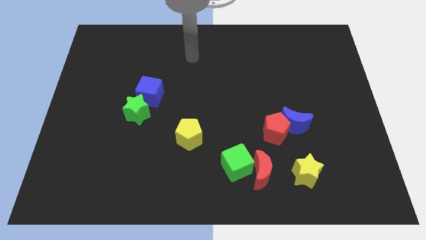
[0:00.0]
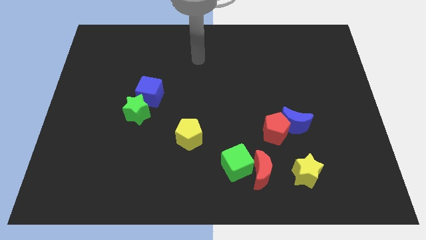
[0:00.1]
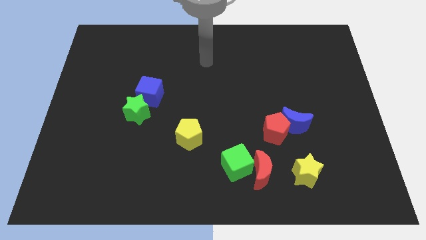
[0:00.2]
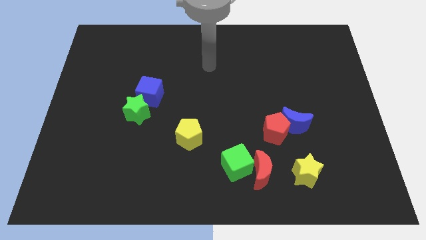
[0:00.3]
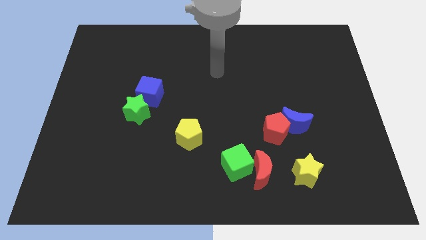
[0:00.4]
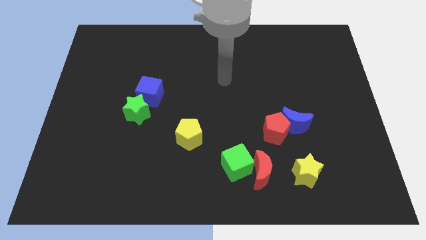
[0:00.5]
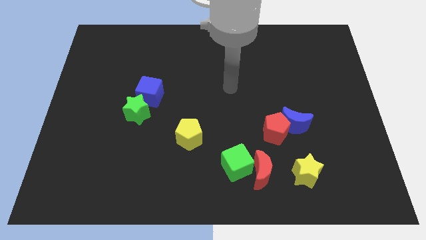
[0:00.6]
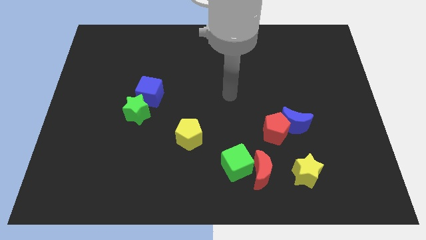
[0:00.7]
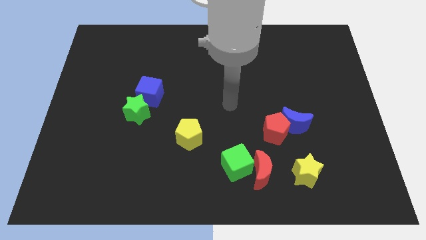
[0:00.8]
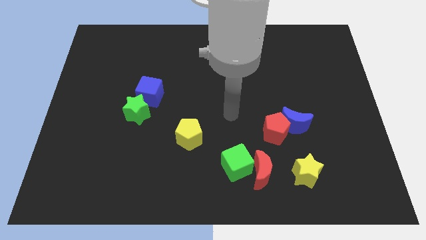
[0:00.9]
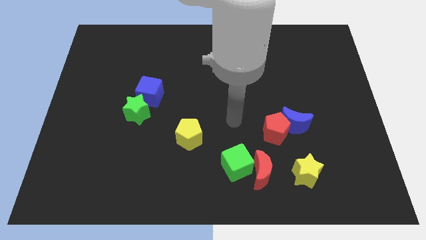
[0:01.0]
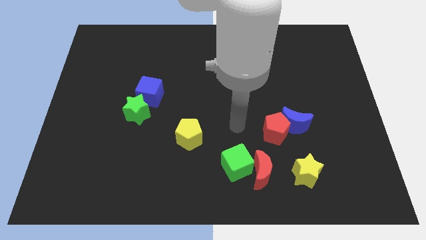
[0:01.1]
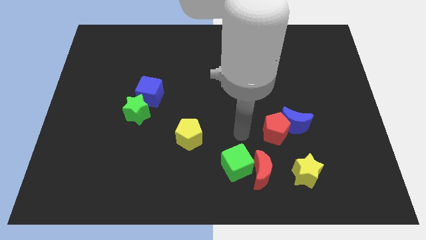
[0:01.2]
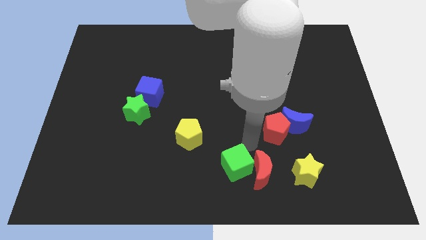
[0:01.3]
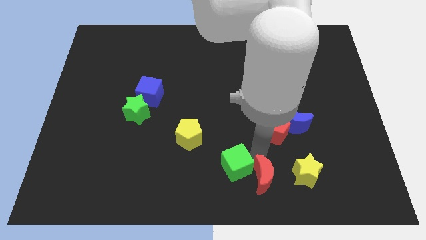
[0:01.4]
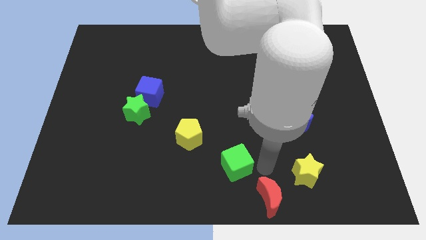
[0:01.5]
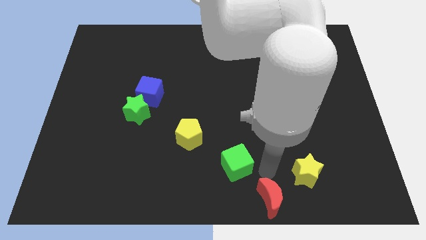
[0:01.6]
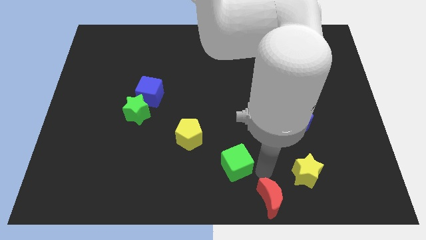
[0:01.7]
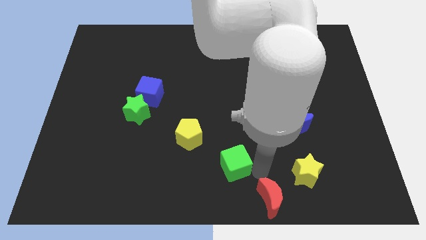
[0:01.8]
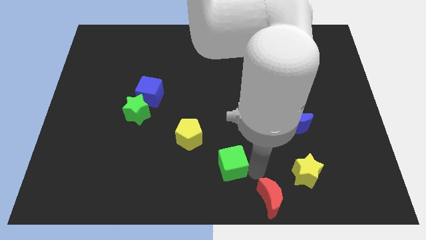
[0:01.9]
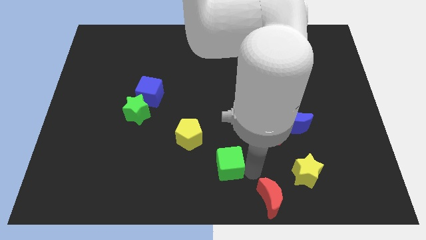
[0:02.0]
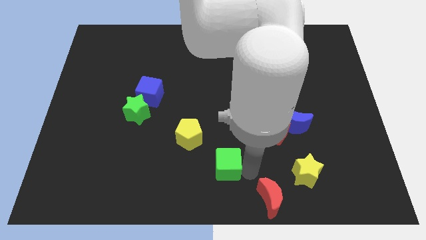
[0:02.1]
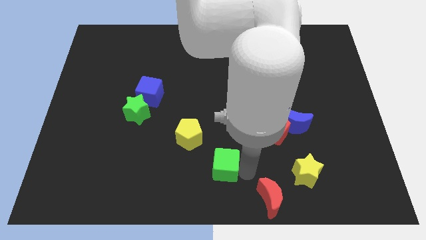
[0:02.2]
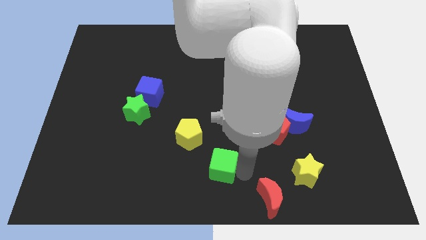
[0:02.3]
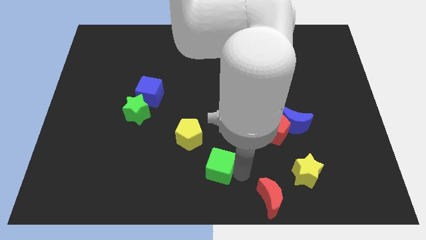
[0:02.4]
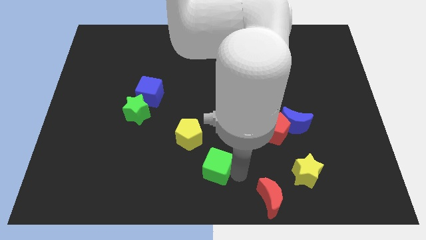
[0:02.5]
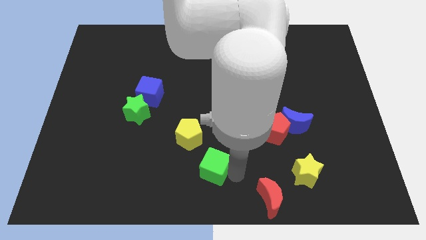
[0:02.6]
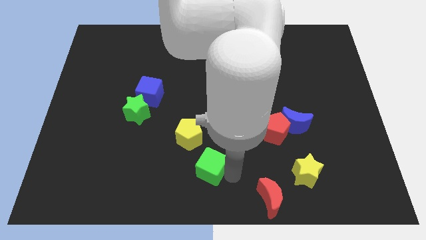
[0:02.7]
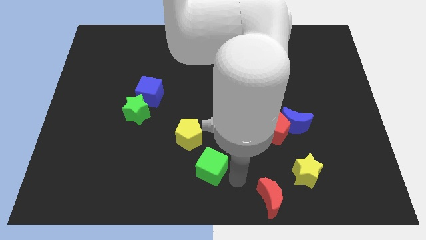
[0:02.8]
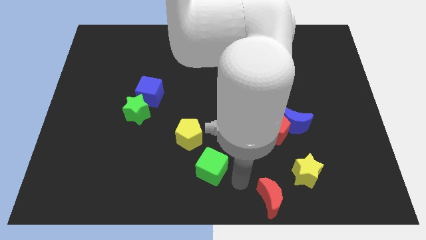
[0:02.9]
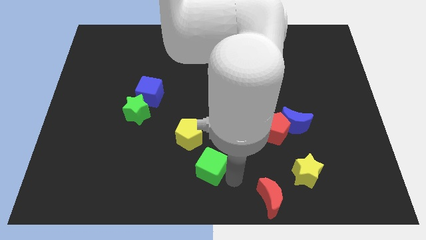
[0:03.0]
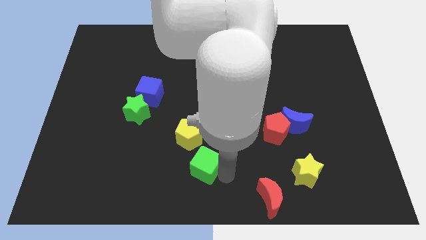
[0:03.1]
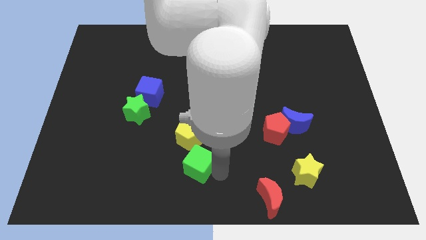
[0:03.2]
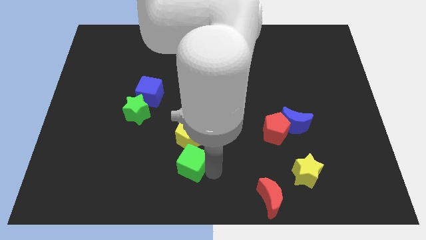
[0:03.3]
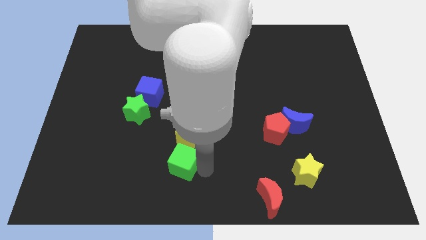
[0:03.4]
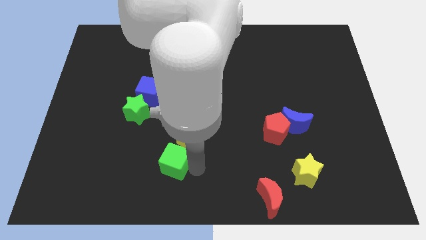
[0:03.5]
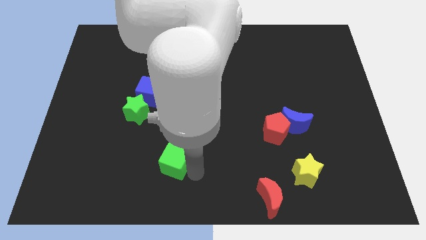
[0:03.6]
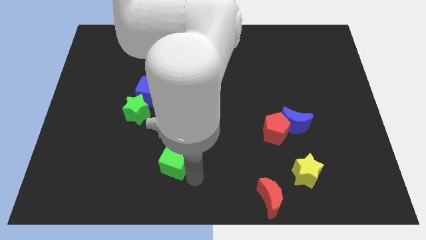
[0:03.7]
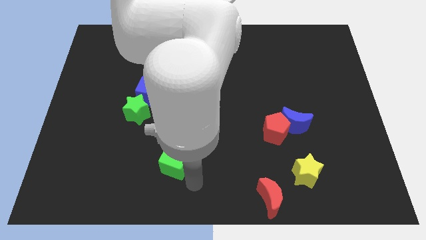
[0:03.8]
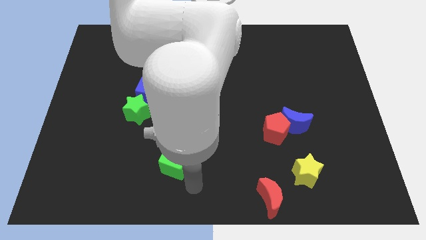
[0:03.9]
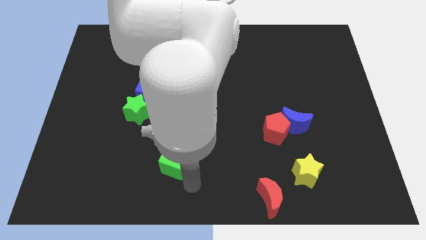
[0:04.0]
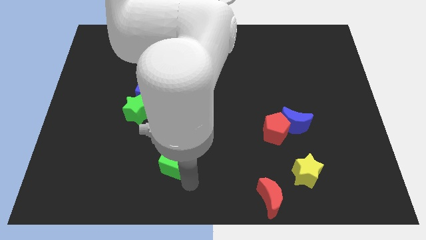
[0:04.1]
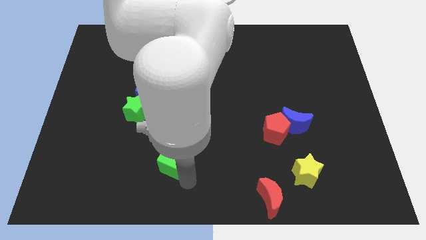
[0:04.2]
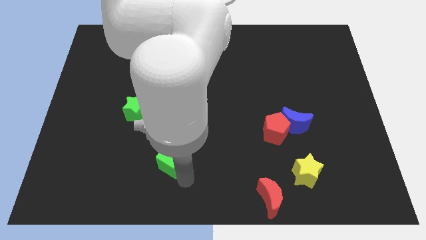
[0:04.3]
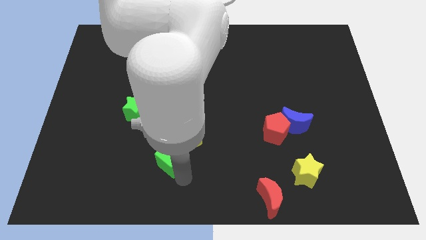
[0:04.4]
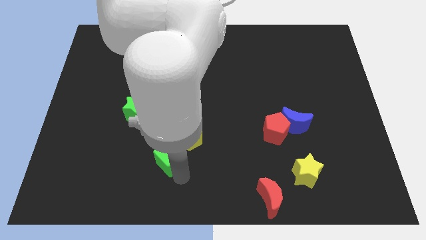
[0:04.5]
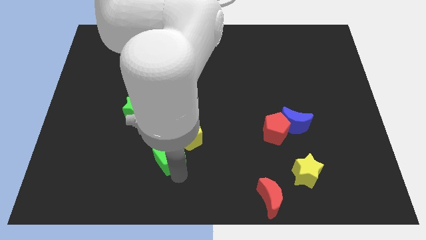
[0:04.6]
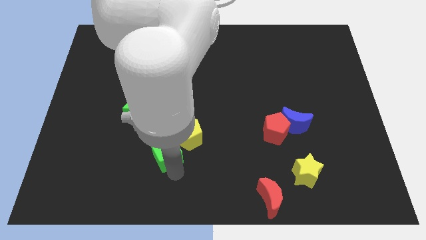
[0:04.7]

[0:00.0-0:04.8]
move the green cube left of the yellow pentagon

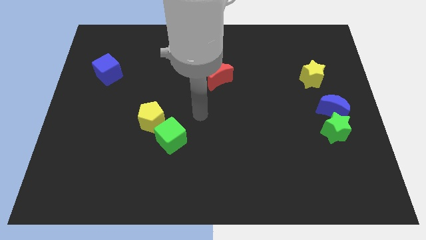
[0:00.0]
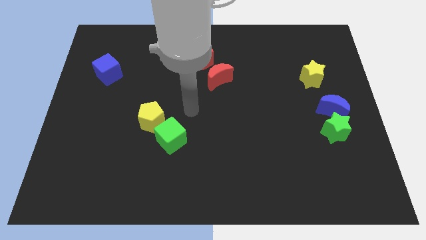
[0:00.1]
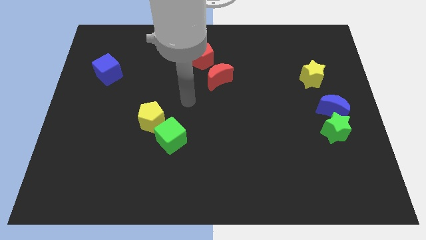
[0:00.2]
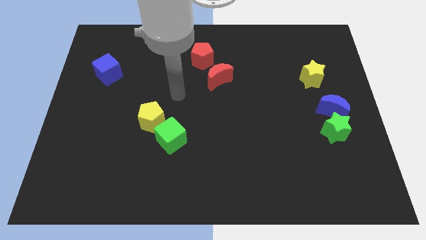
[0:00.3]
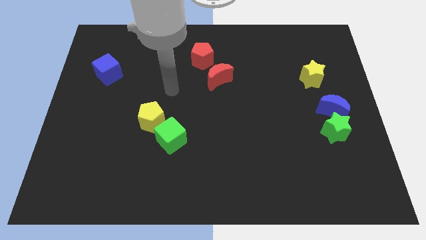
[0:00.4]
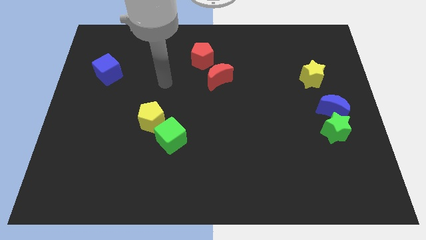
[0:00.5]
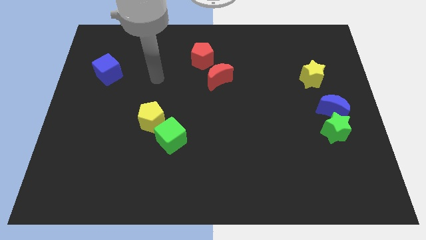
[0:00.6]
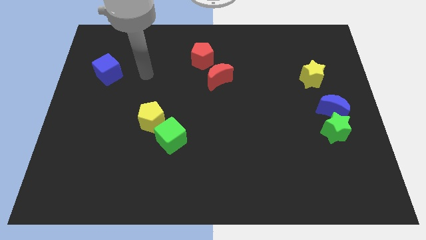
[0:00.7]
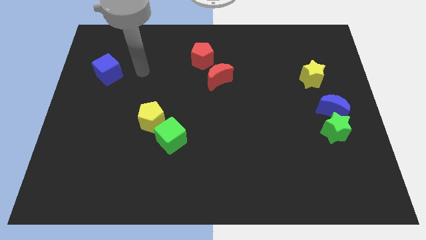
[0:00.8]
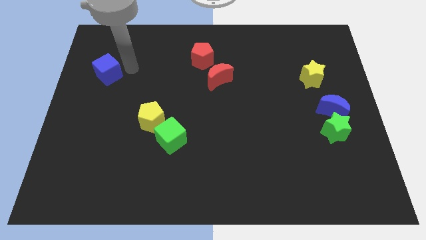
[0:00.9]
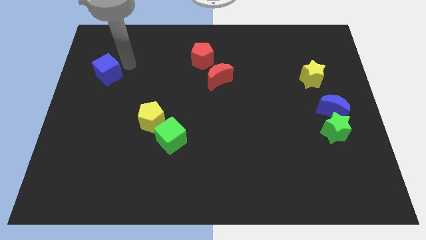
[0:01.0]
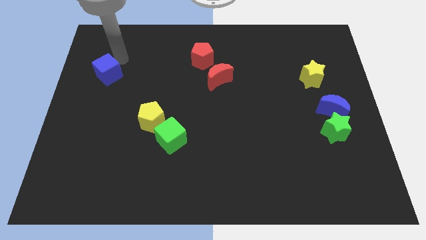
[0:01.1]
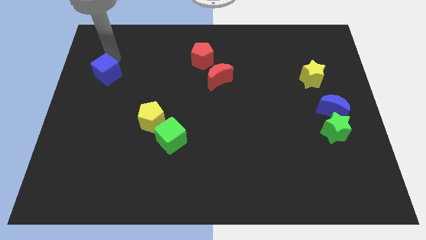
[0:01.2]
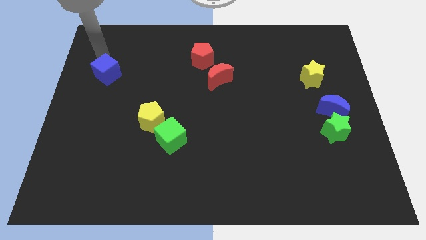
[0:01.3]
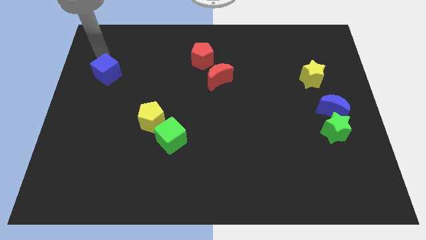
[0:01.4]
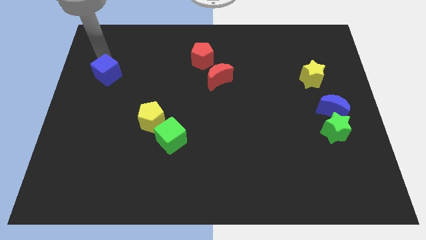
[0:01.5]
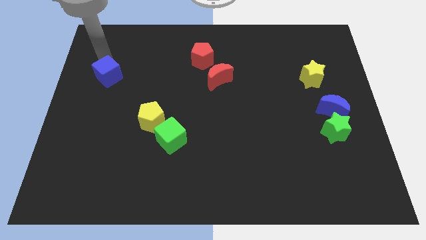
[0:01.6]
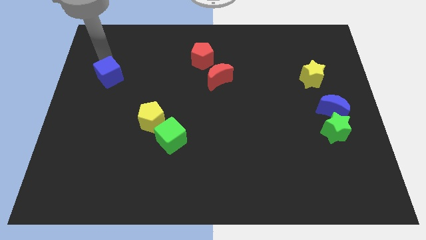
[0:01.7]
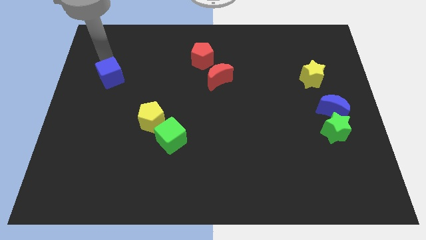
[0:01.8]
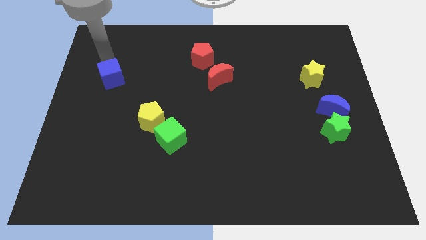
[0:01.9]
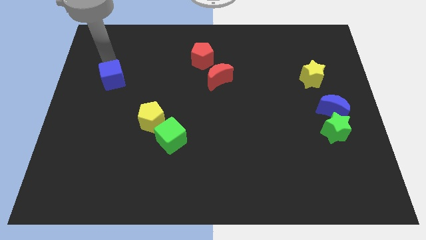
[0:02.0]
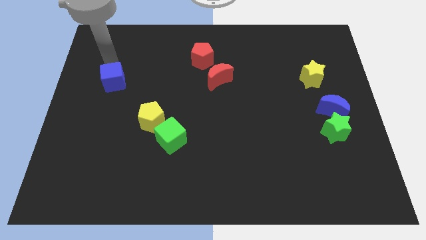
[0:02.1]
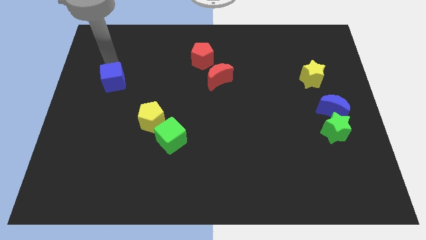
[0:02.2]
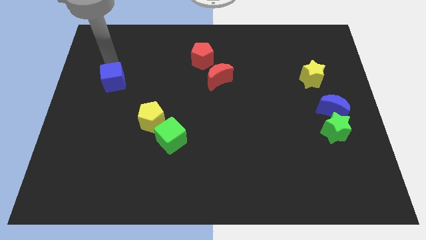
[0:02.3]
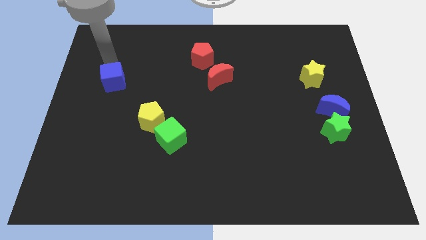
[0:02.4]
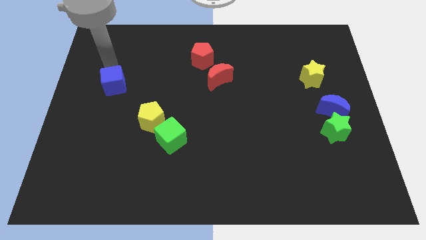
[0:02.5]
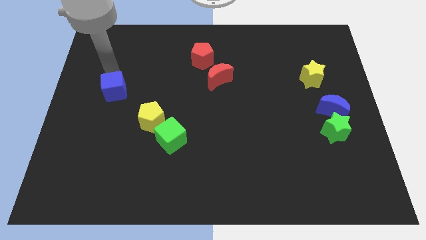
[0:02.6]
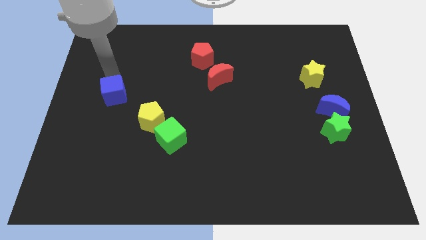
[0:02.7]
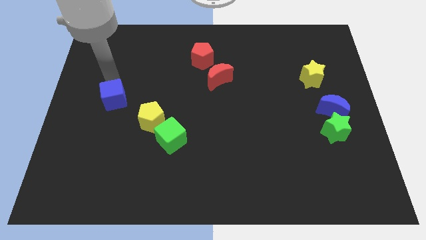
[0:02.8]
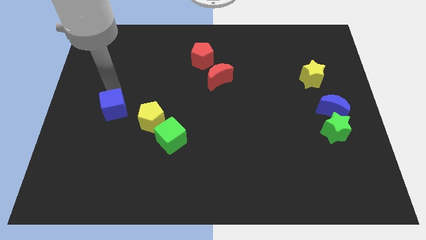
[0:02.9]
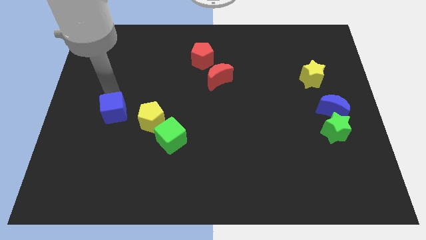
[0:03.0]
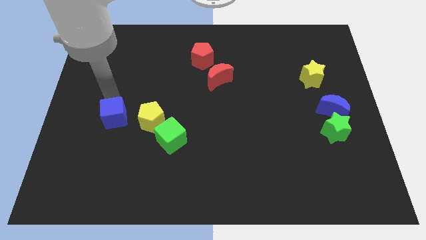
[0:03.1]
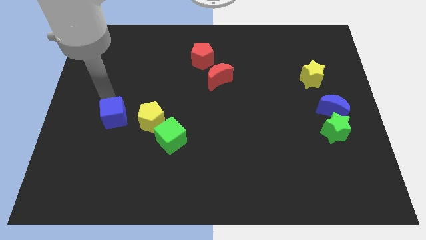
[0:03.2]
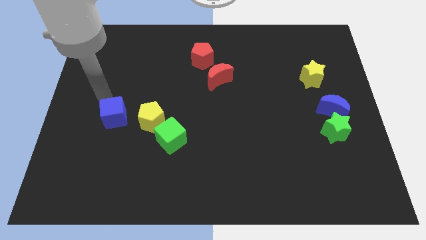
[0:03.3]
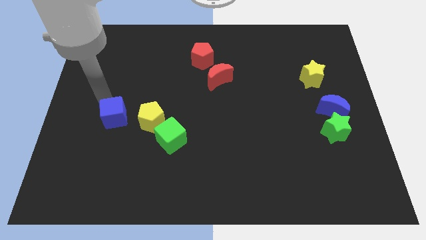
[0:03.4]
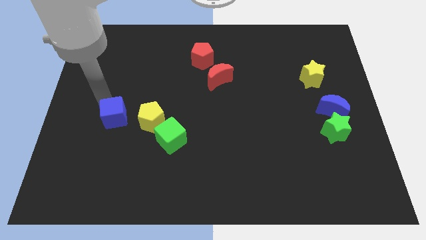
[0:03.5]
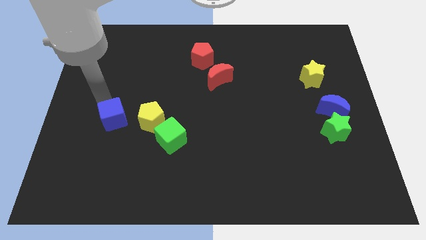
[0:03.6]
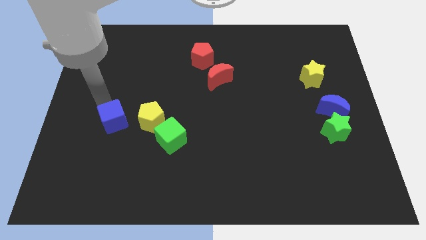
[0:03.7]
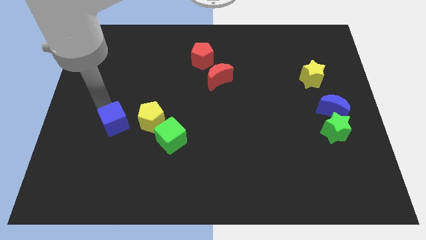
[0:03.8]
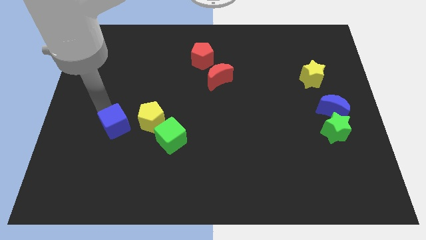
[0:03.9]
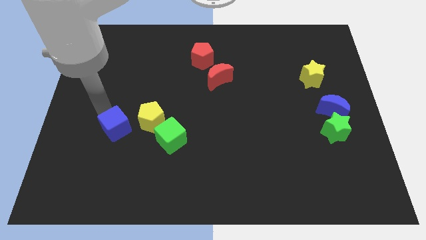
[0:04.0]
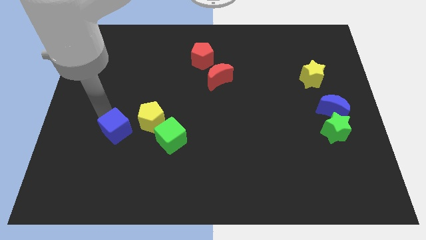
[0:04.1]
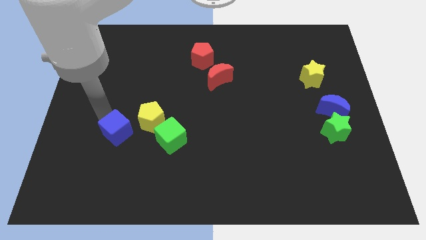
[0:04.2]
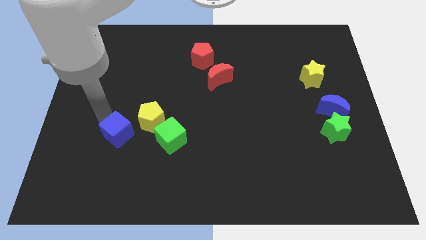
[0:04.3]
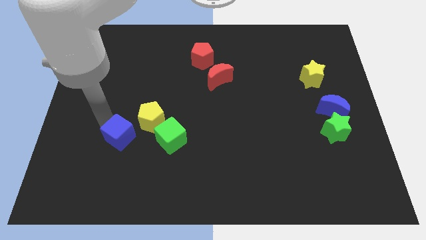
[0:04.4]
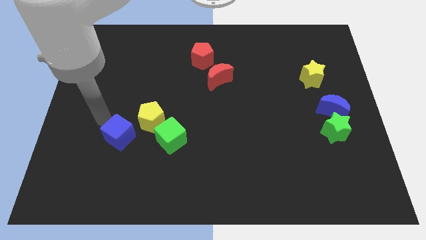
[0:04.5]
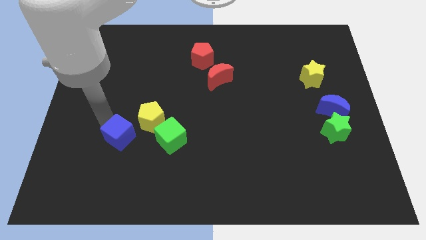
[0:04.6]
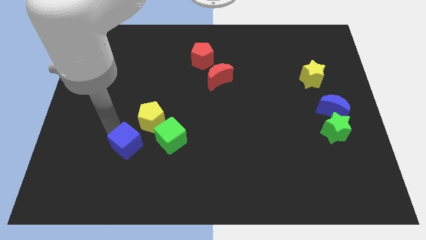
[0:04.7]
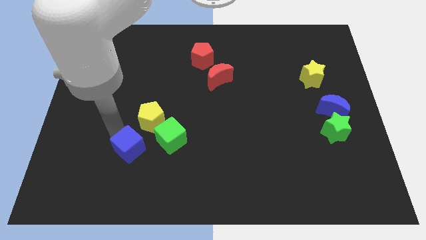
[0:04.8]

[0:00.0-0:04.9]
put the blue cube to the bottom left side of the green cube
